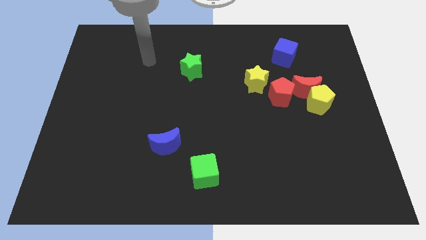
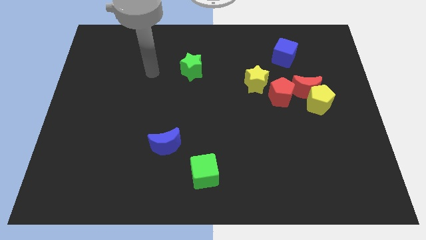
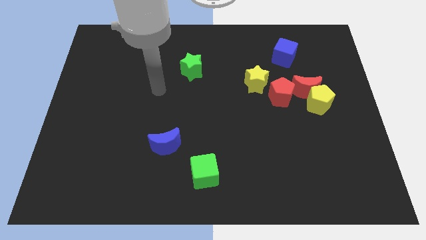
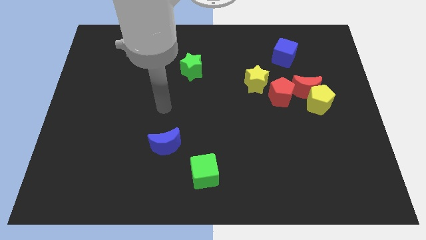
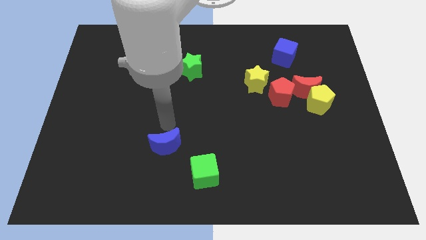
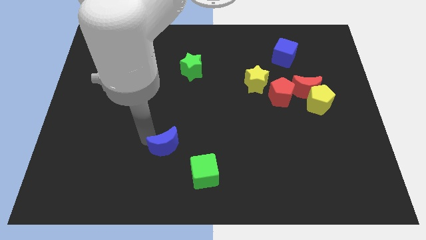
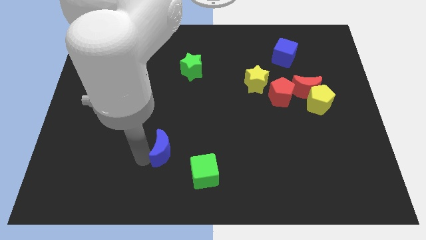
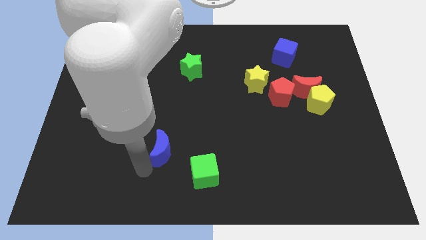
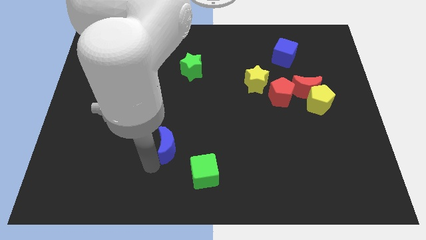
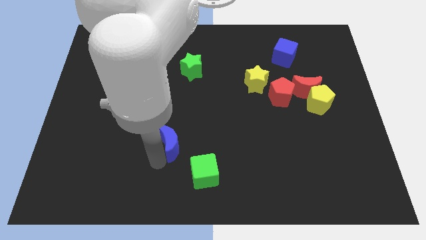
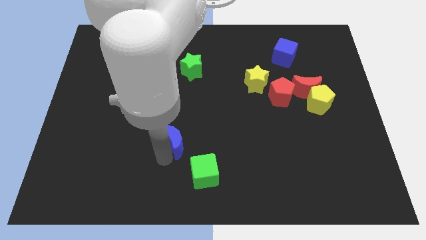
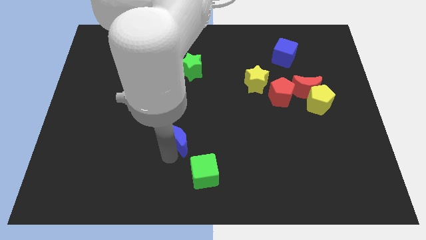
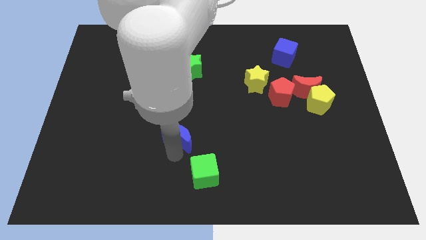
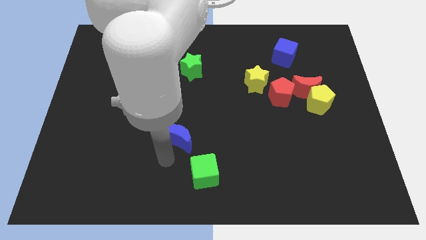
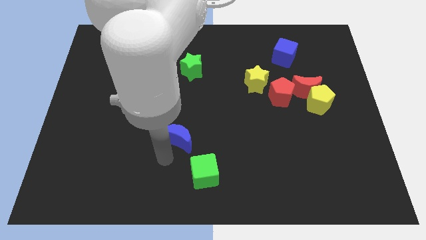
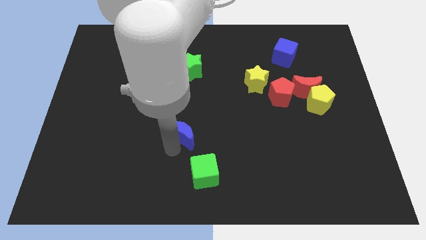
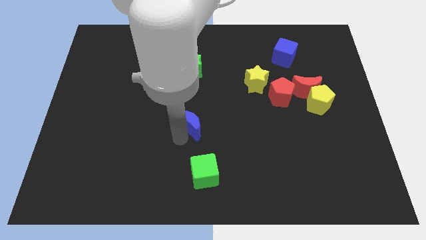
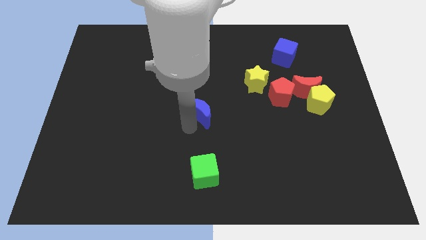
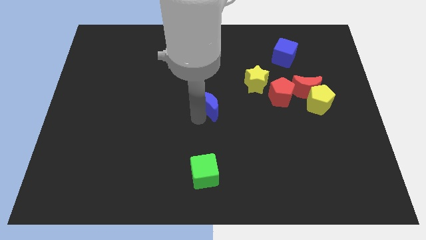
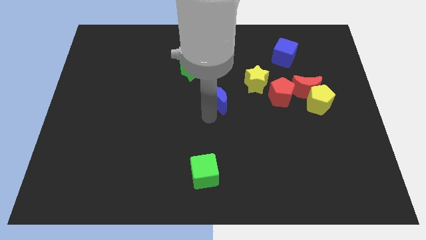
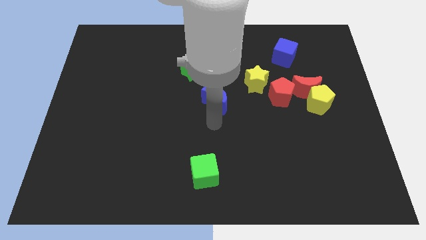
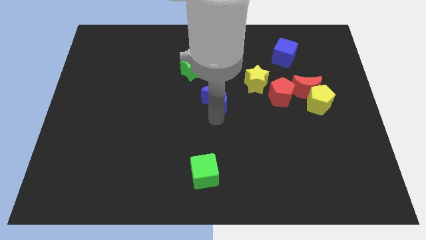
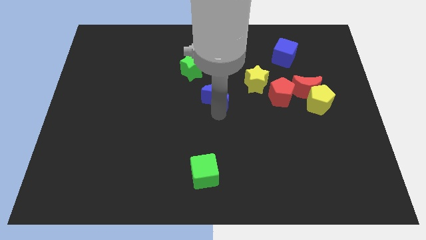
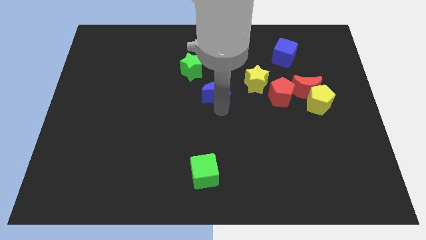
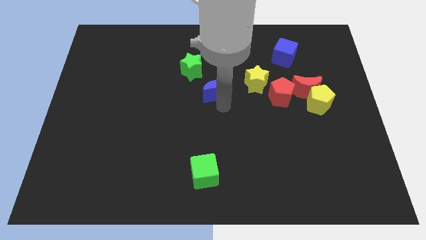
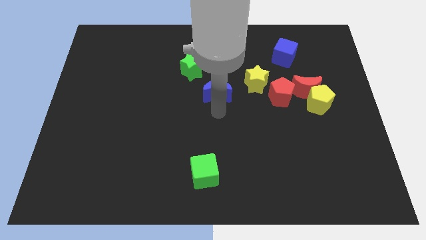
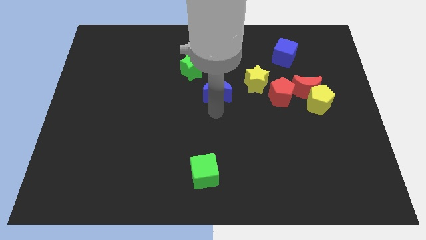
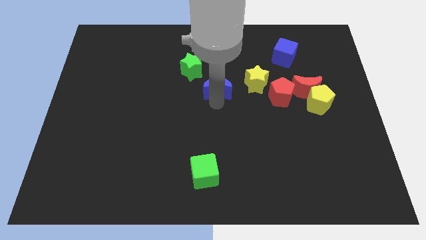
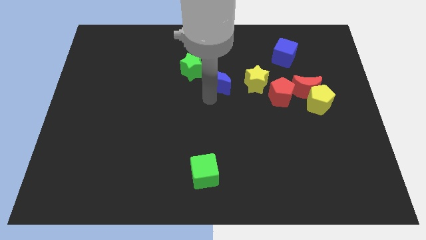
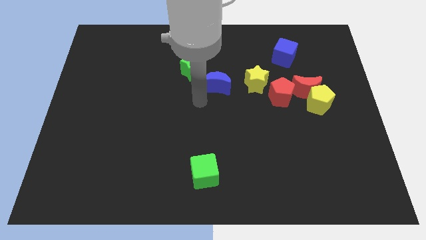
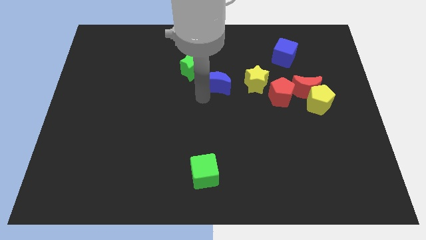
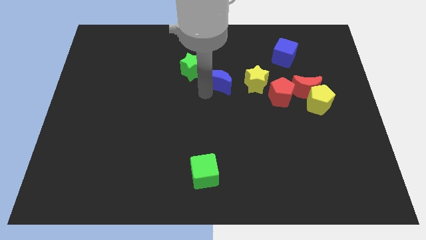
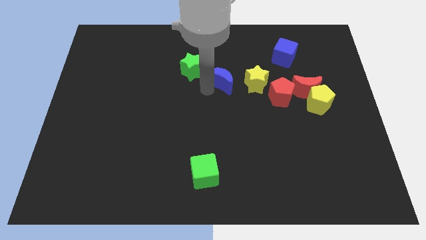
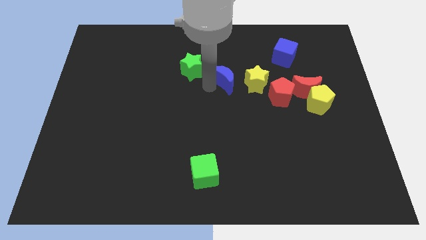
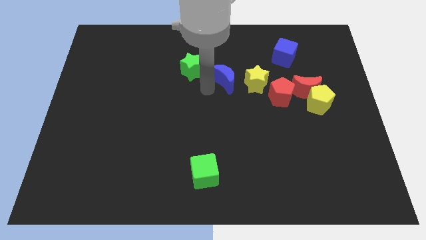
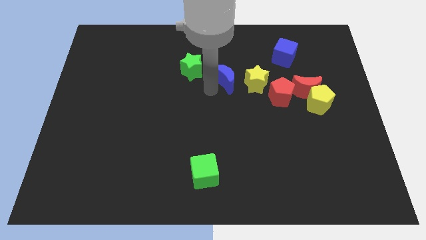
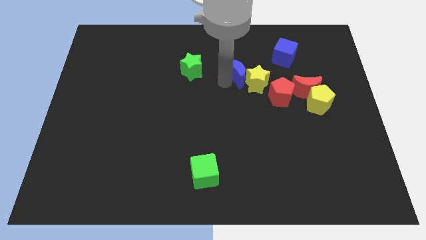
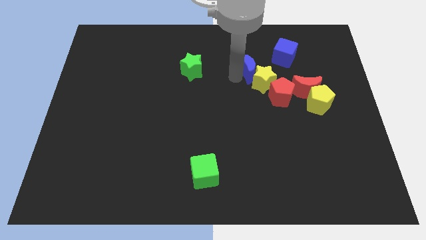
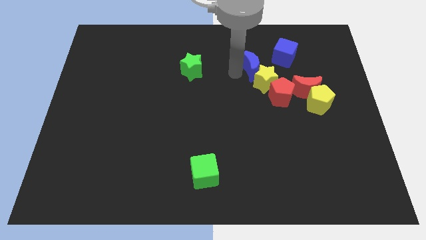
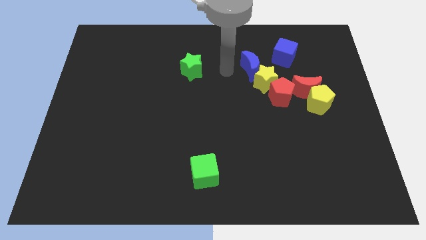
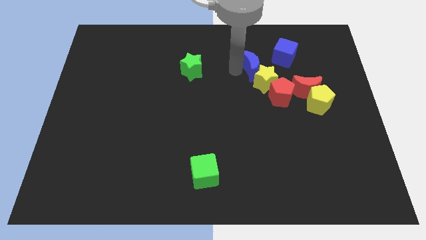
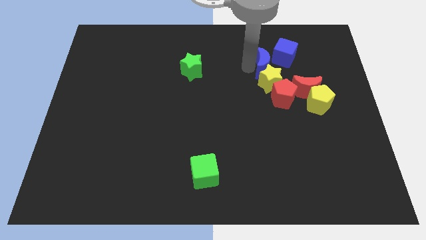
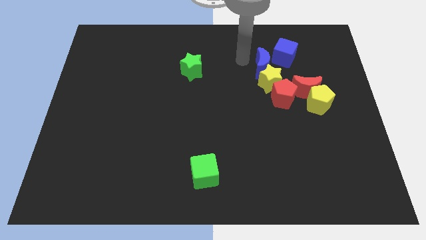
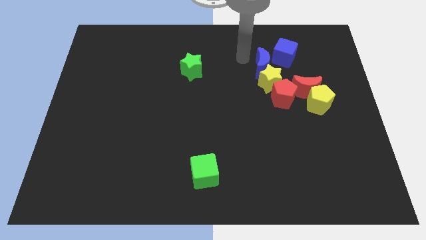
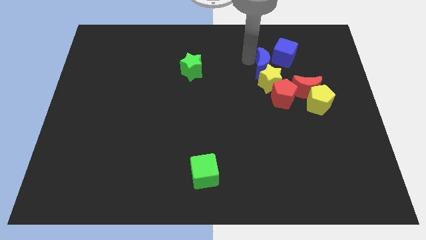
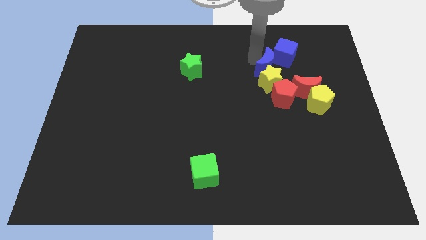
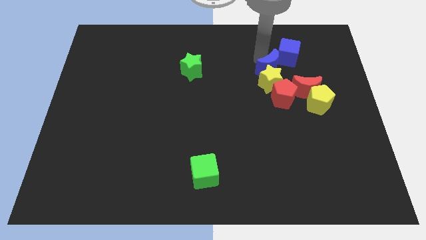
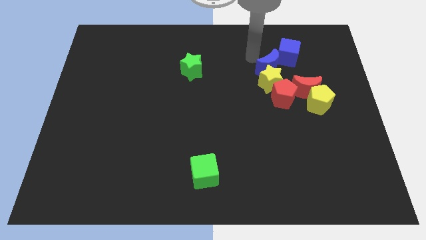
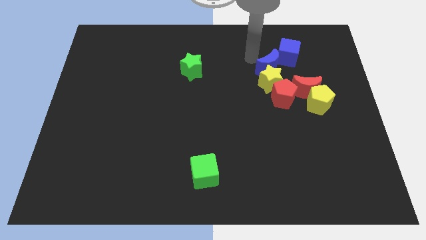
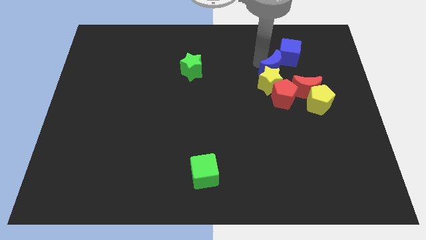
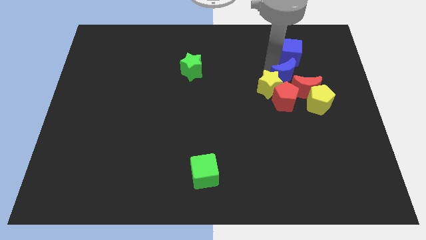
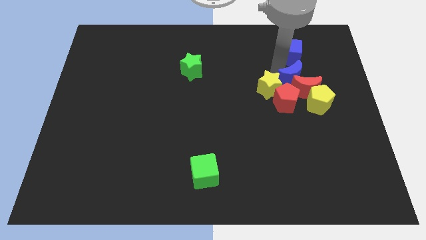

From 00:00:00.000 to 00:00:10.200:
push the blue moon next to the red moon

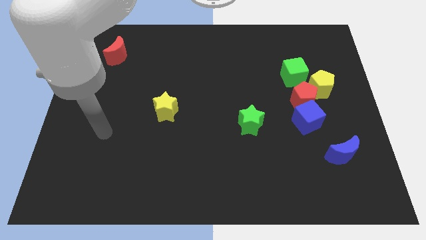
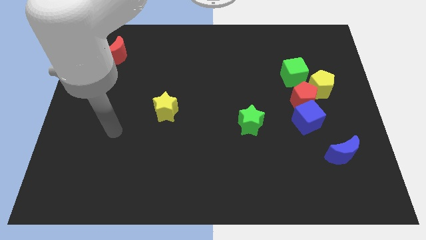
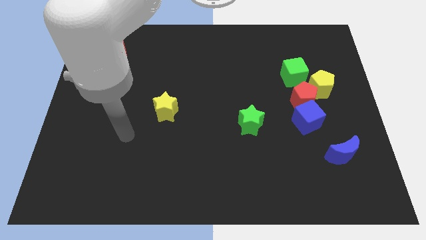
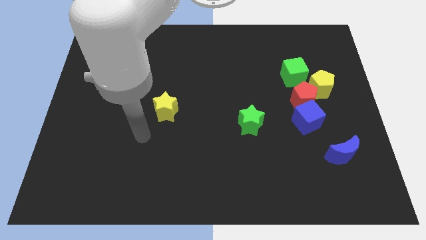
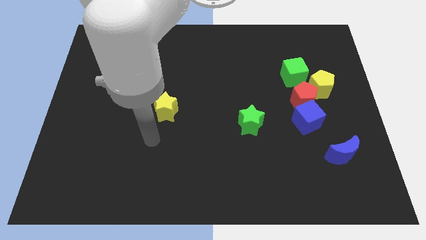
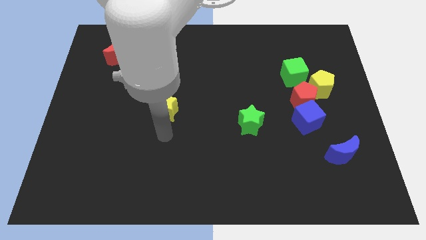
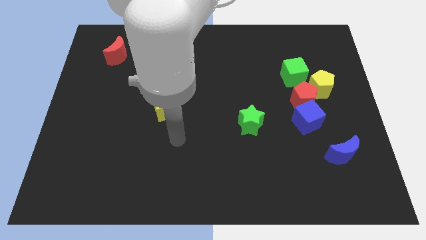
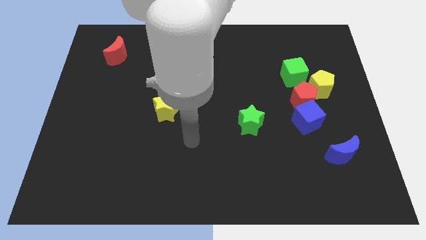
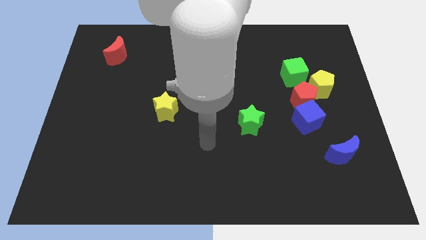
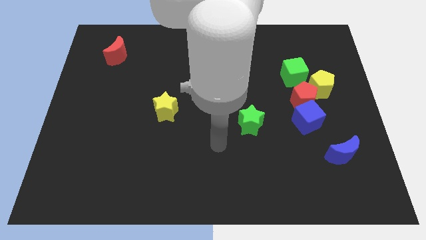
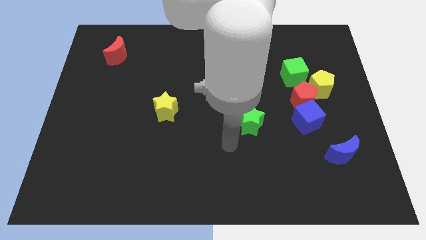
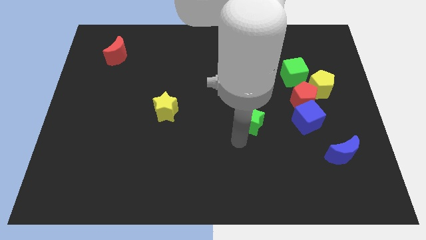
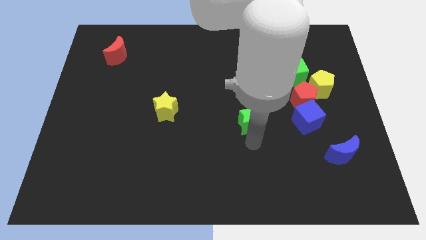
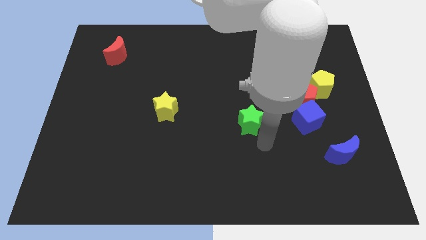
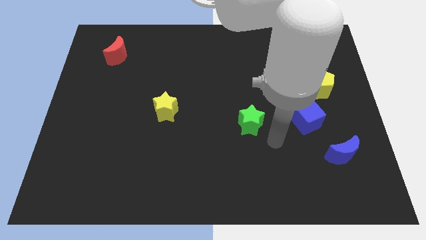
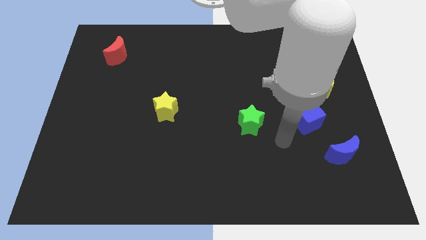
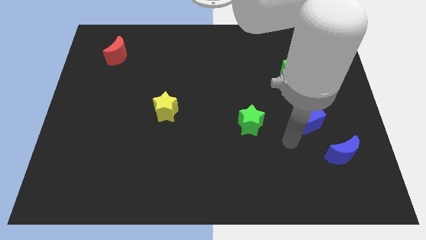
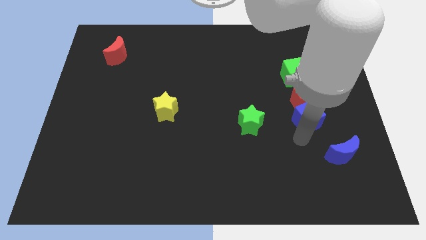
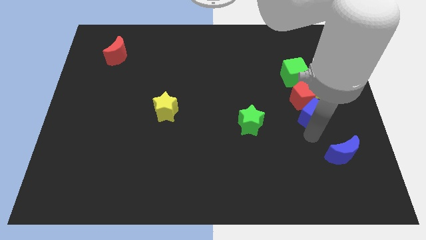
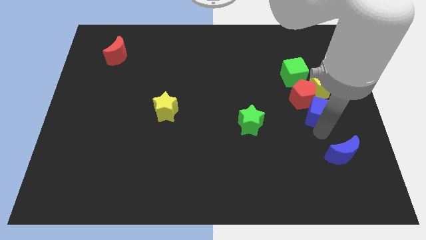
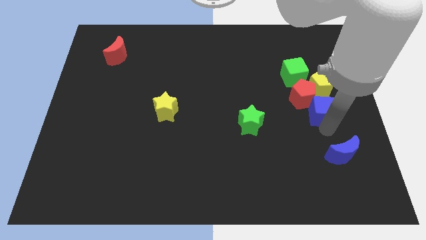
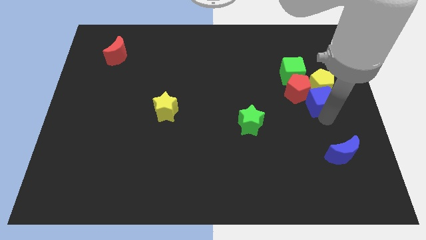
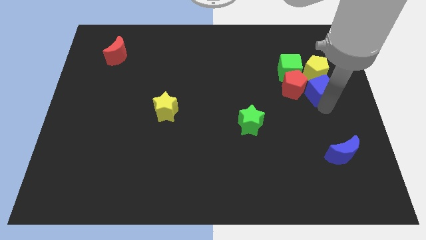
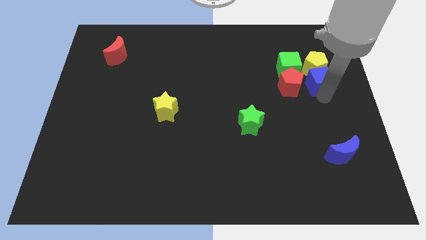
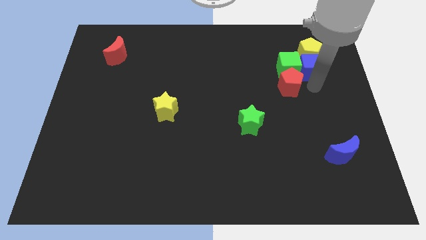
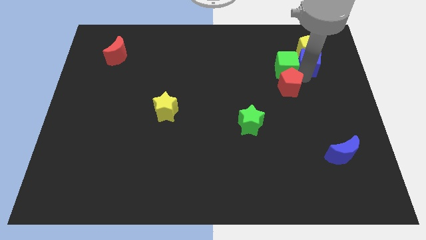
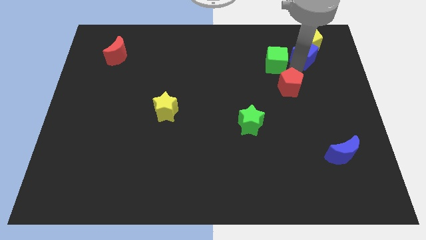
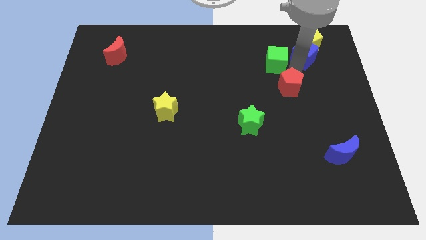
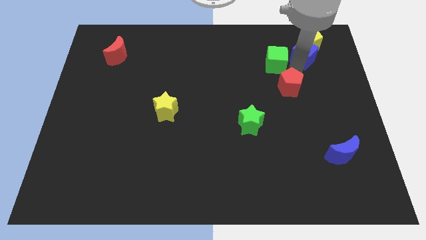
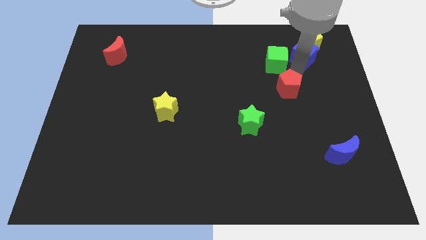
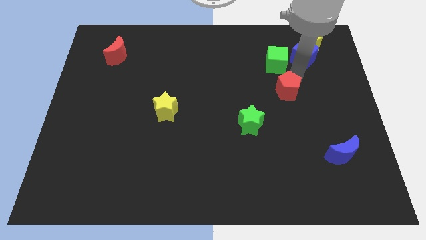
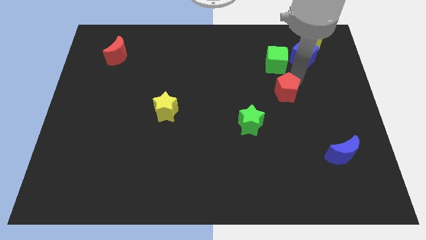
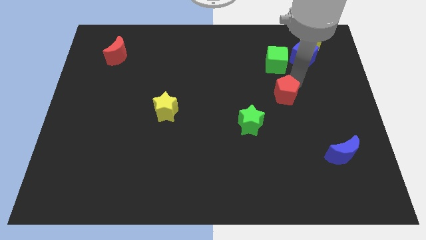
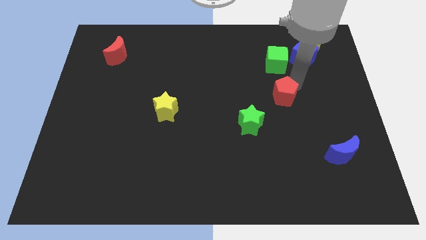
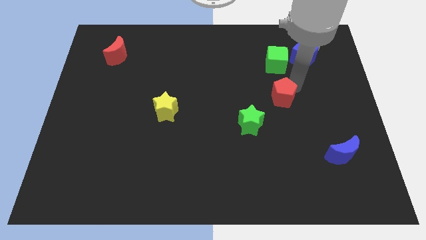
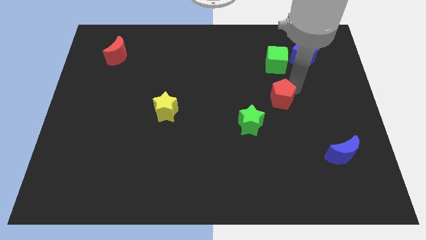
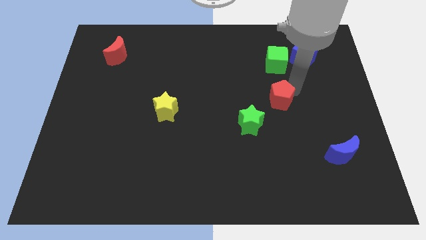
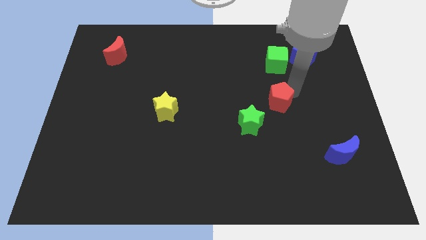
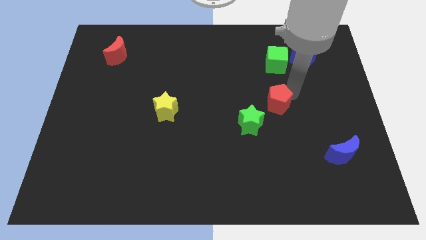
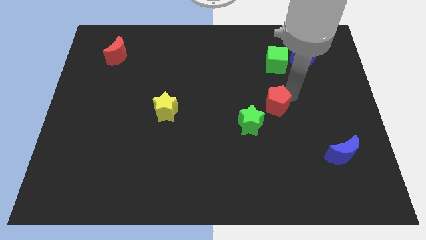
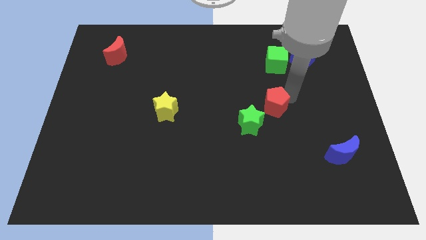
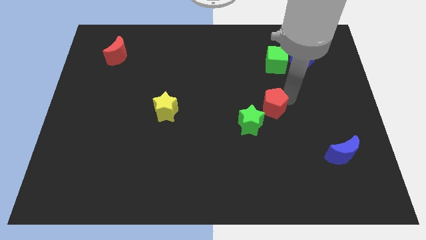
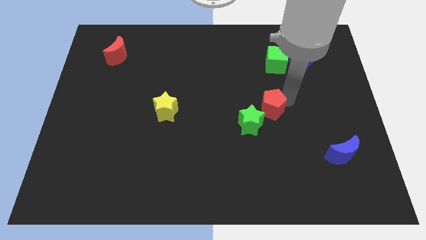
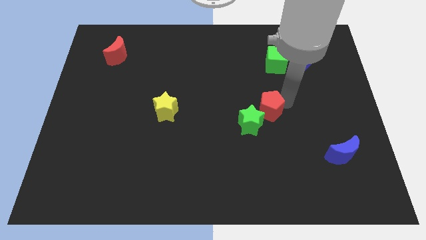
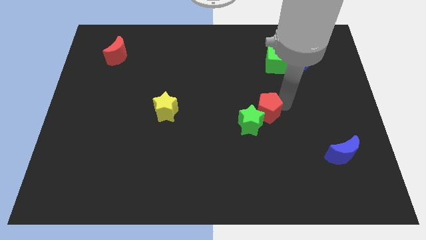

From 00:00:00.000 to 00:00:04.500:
move the red pentagon to the green star
